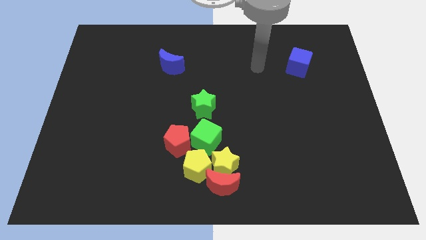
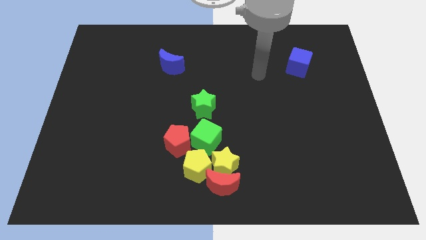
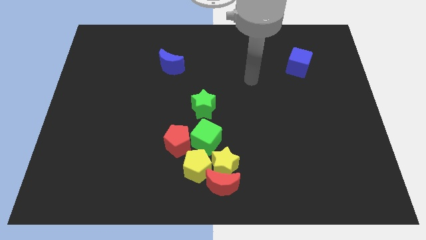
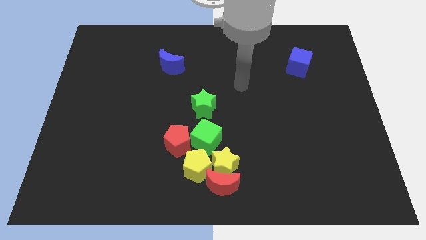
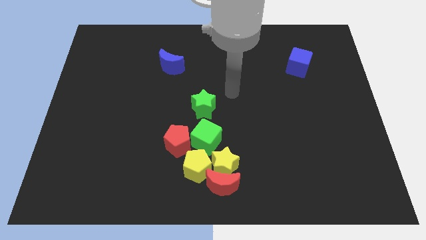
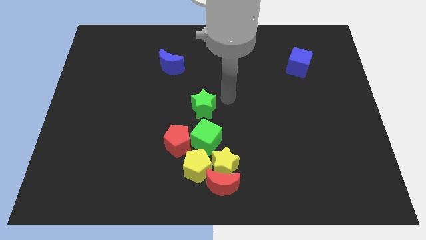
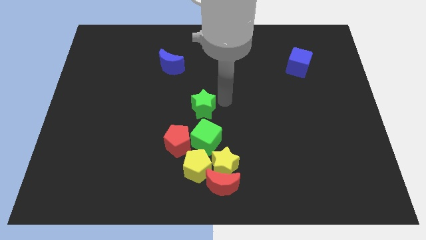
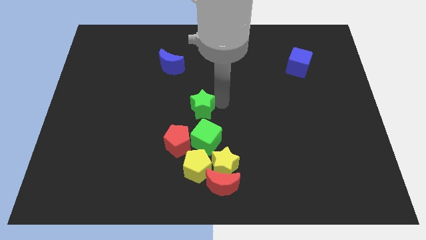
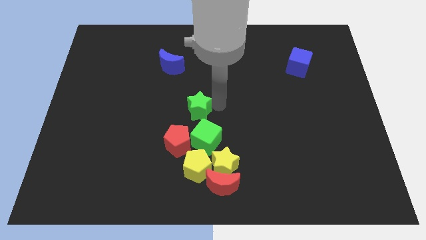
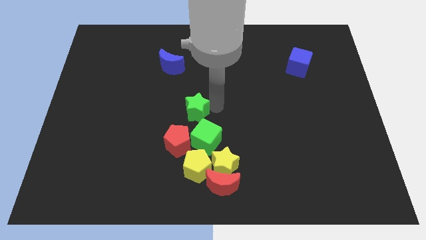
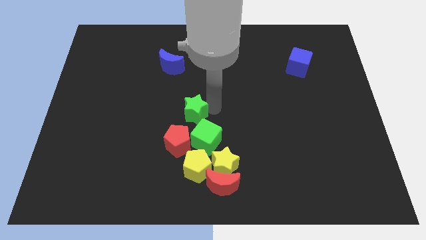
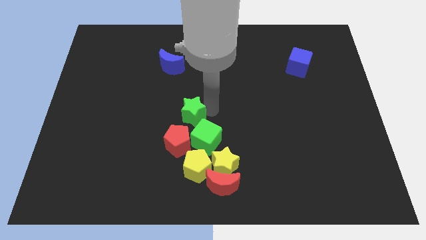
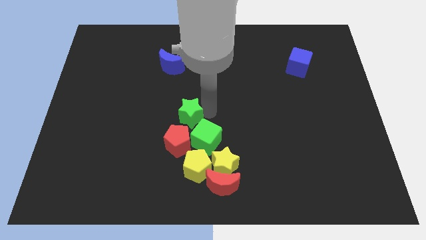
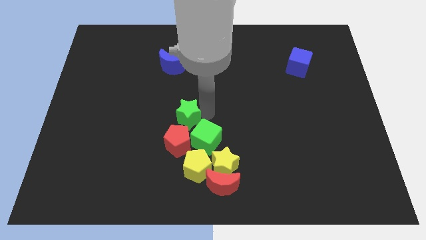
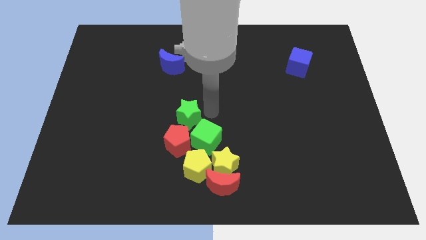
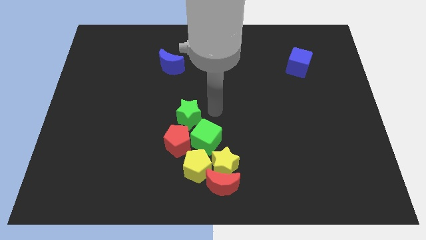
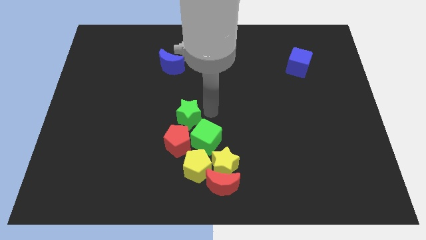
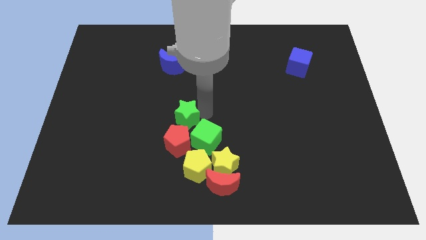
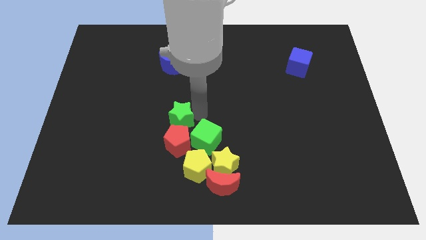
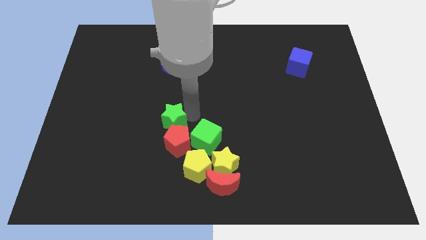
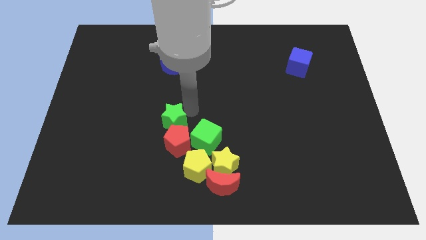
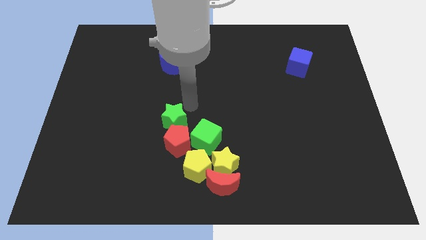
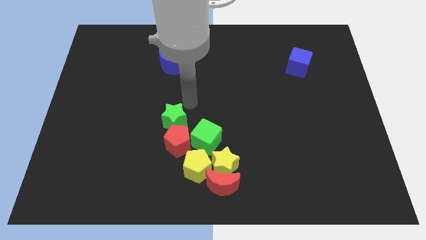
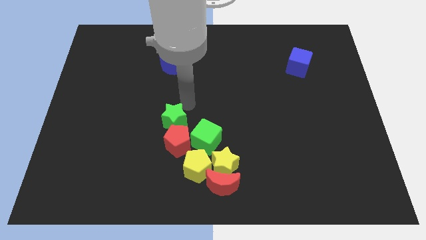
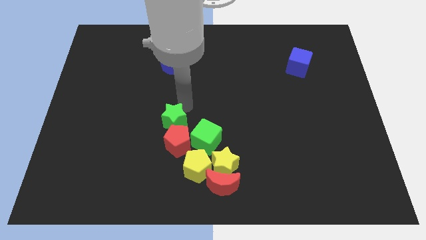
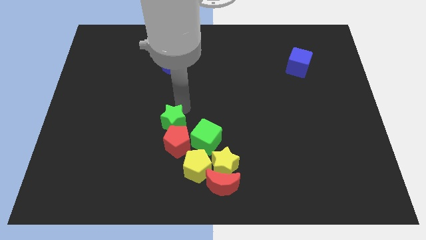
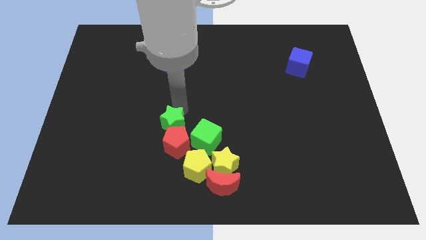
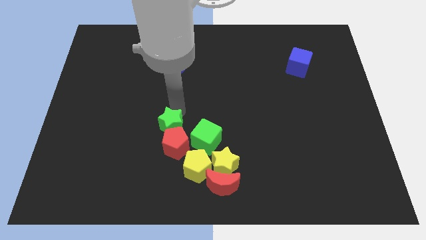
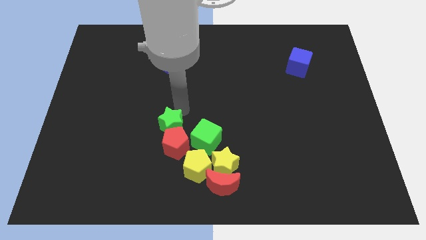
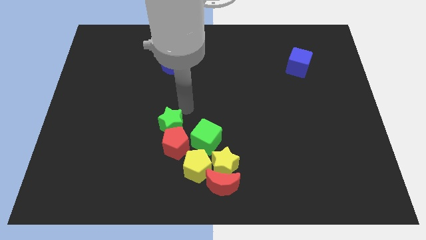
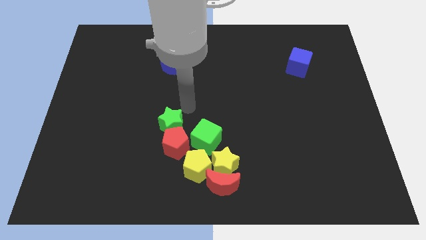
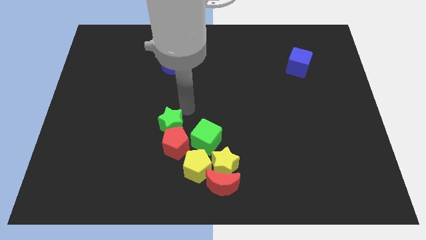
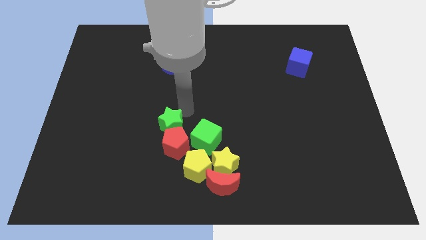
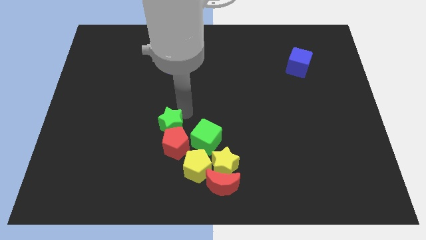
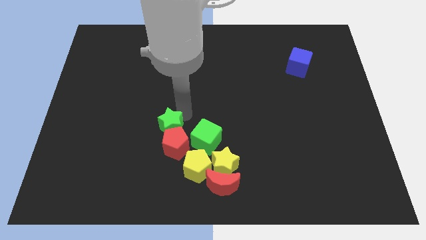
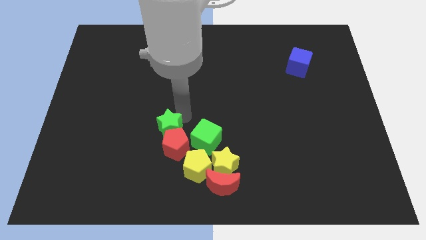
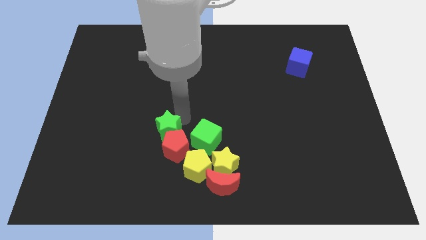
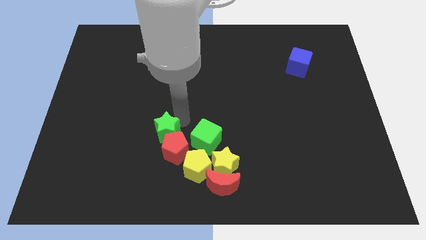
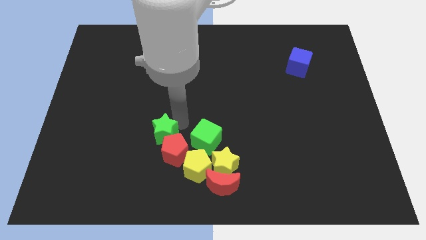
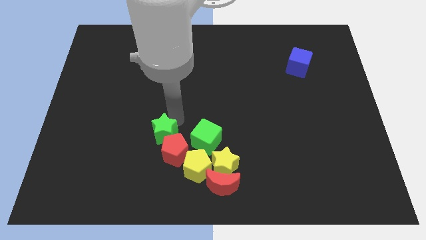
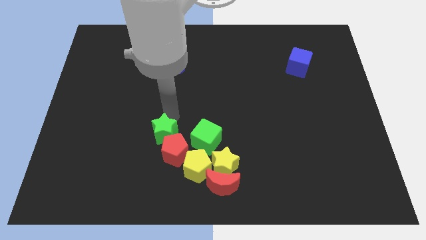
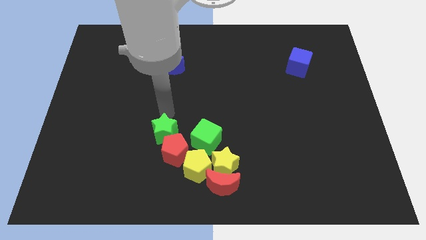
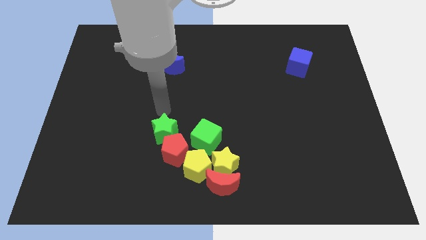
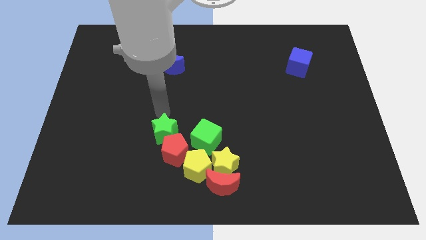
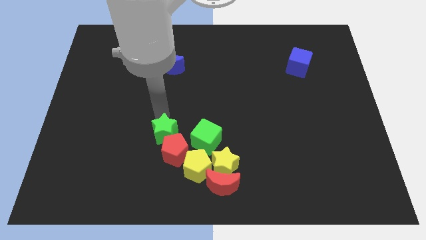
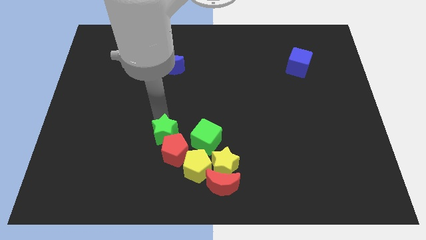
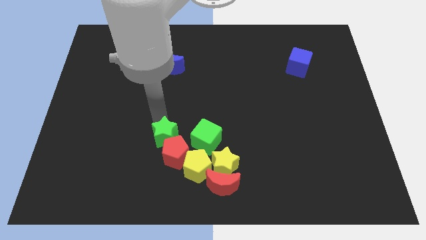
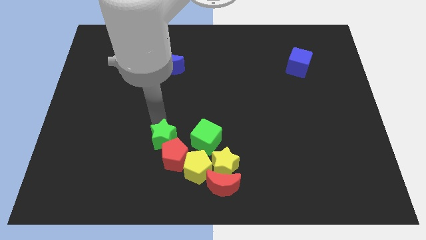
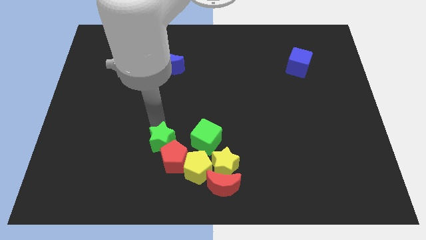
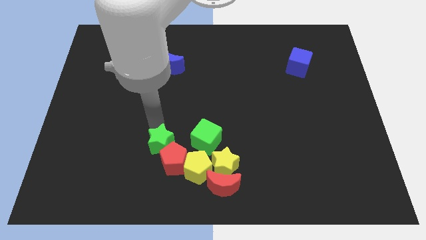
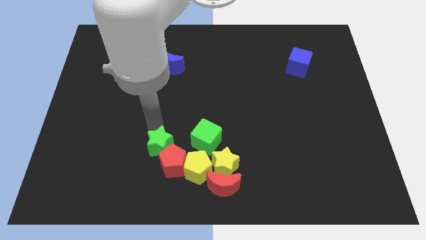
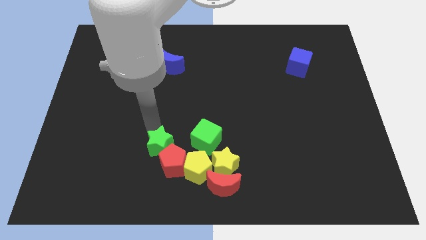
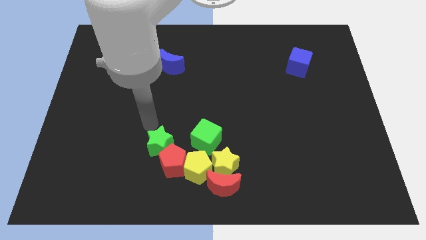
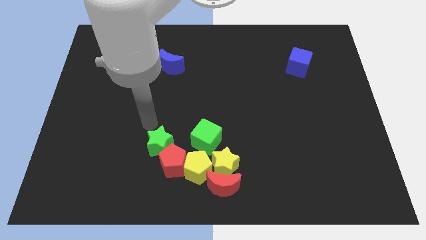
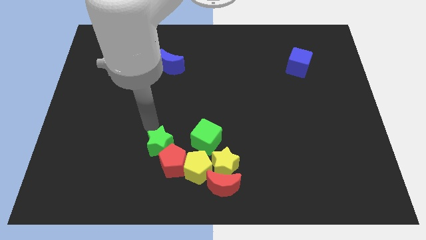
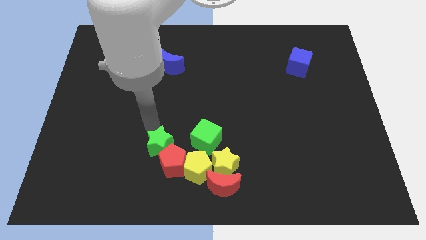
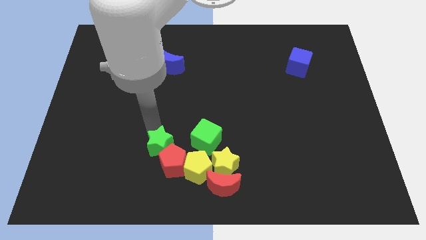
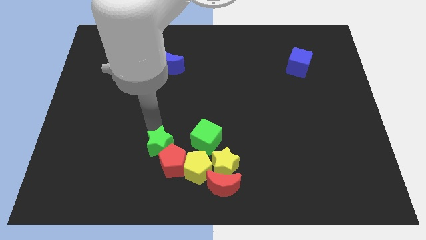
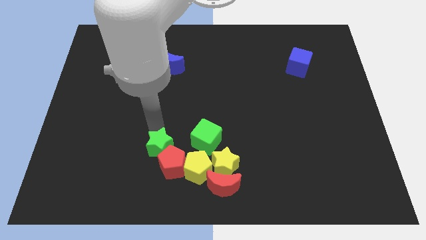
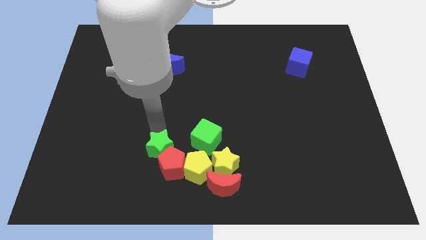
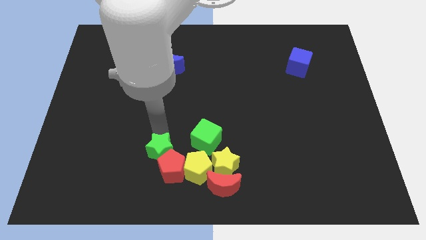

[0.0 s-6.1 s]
move the green star diagonally down and to the left of the green cube

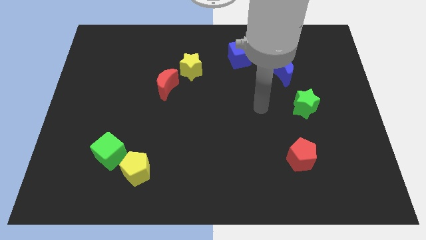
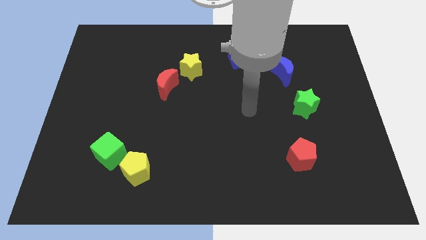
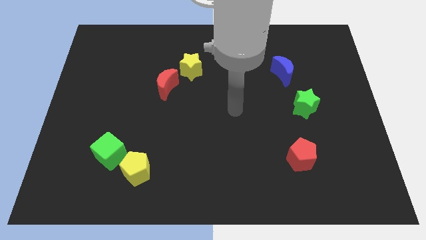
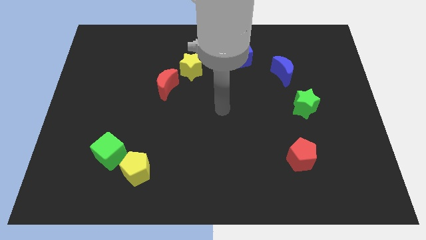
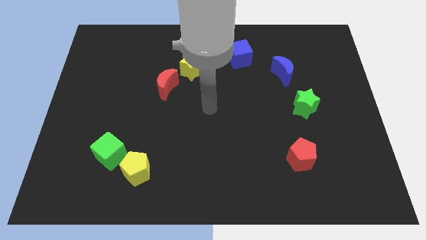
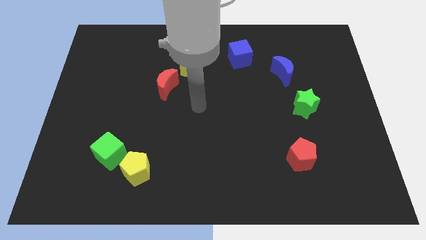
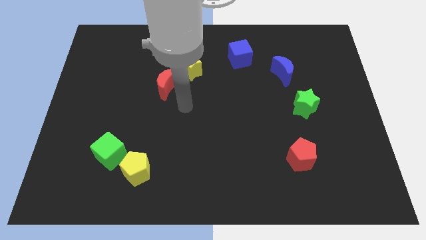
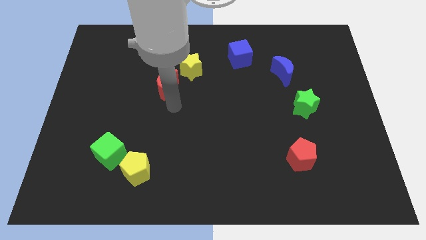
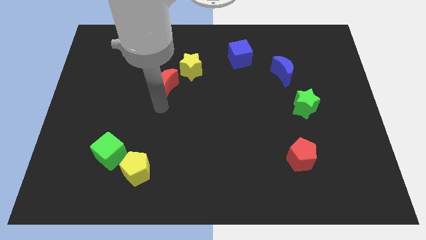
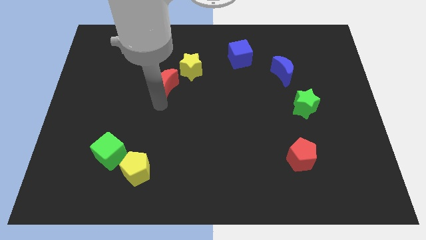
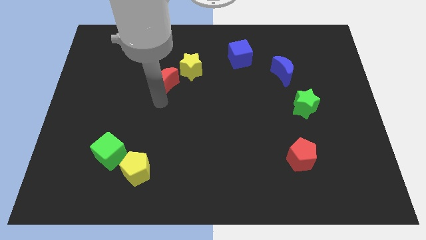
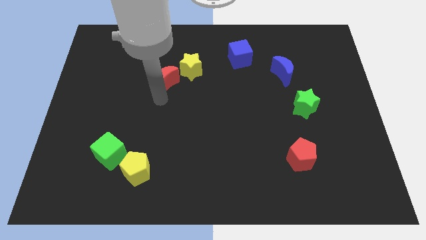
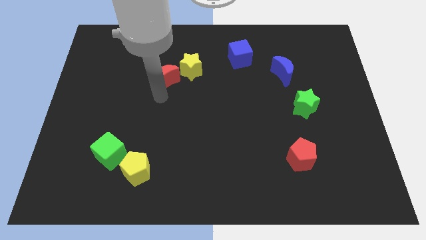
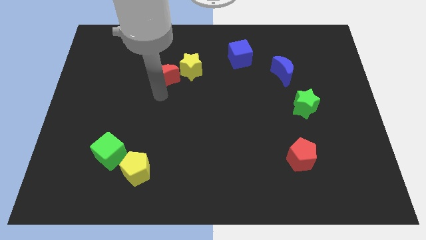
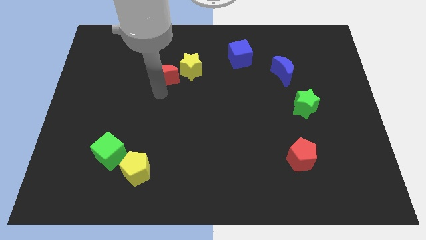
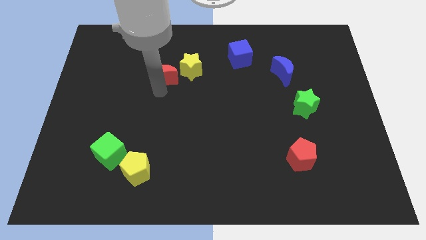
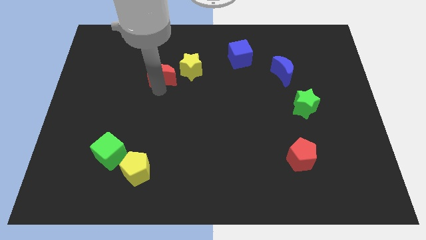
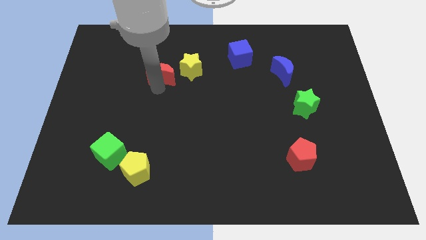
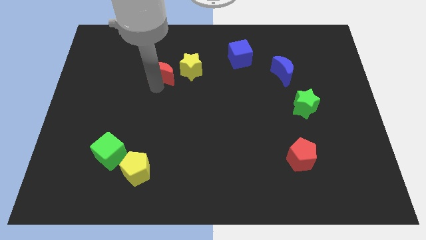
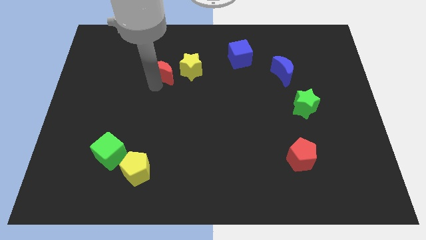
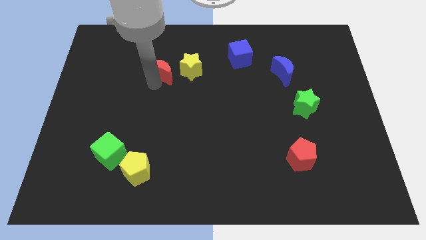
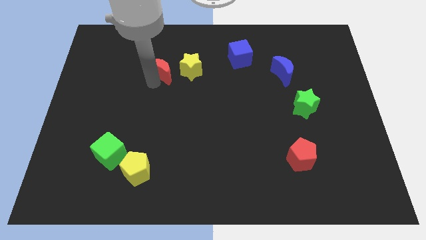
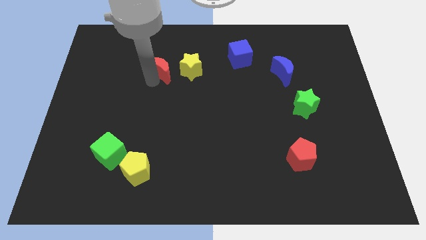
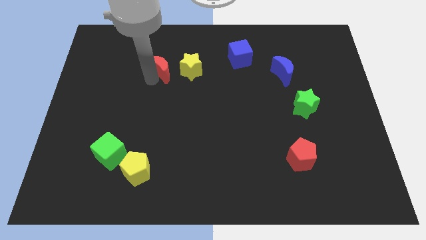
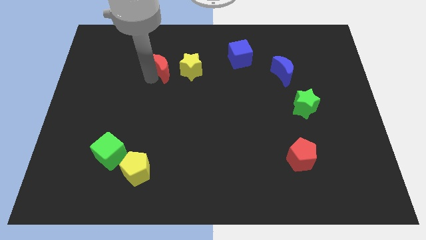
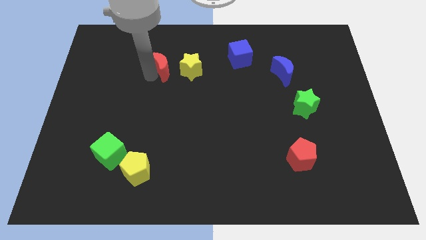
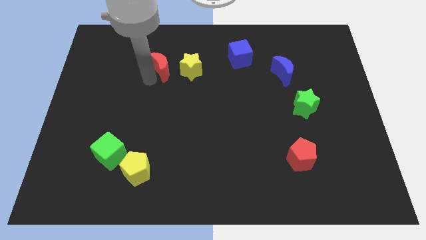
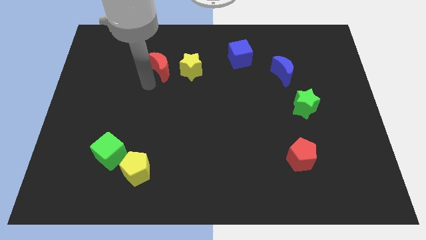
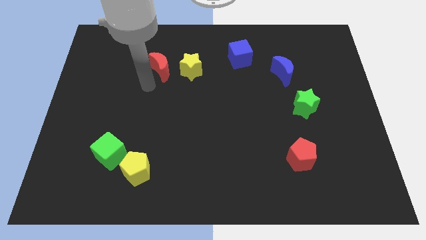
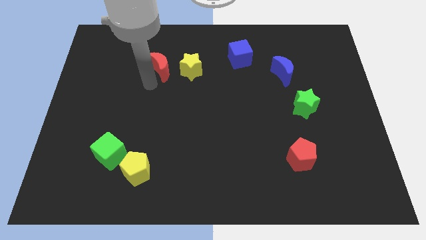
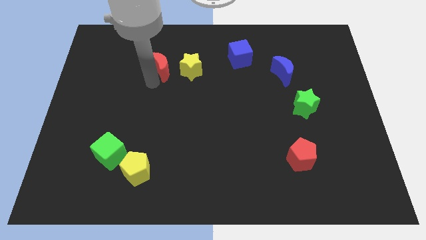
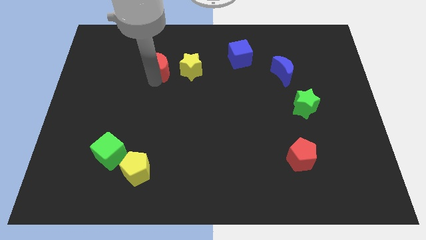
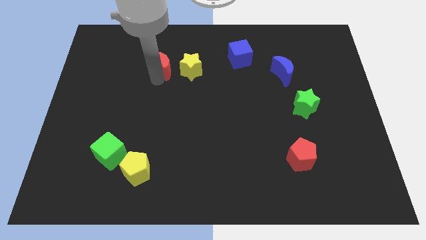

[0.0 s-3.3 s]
push the red moon to the top left side of the yellow star
